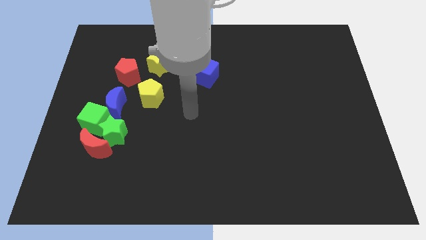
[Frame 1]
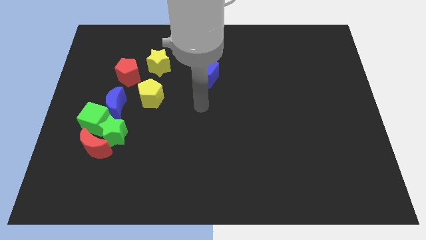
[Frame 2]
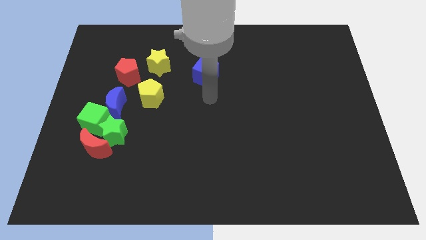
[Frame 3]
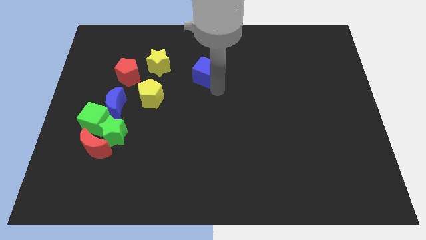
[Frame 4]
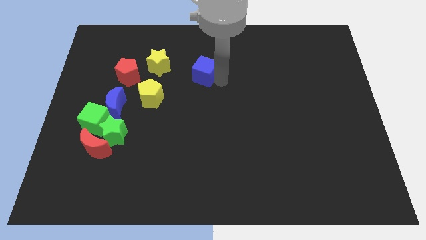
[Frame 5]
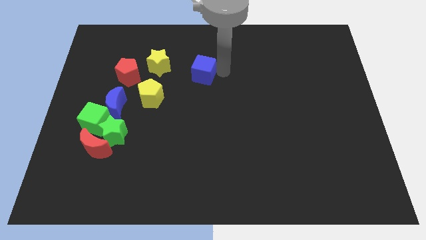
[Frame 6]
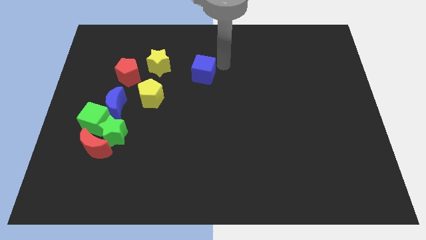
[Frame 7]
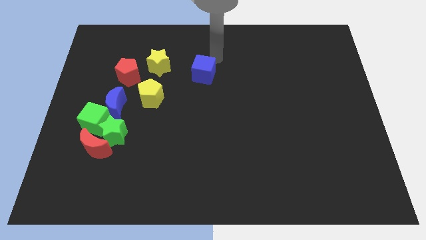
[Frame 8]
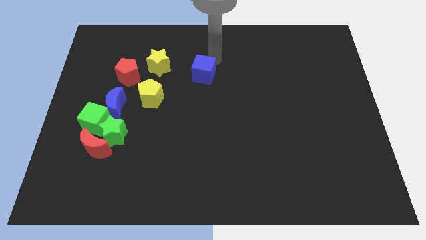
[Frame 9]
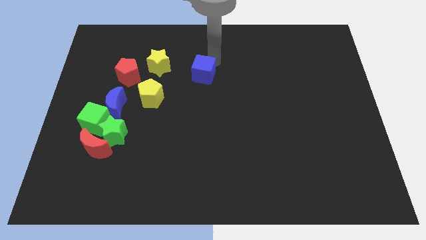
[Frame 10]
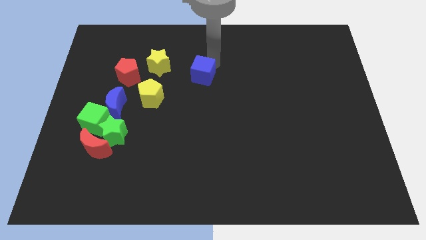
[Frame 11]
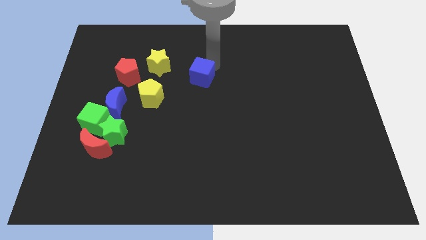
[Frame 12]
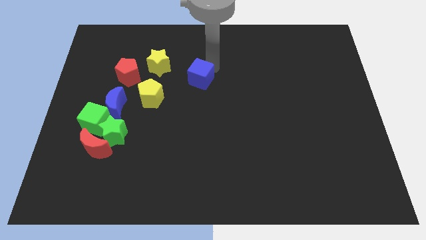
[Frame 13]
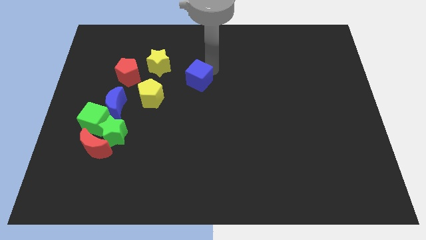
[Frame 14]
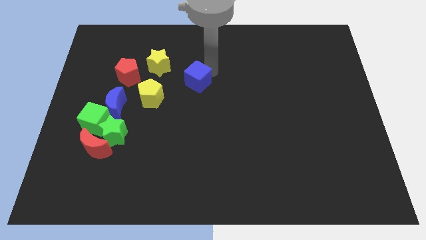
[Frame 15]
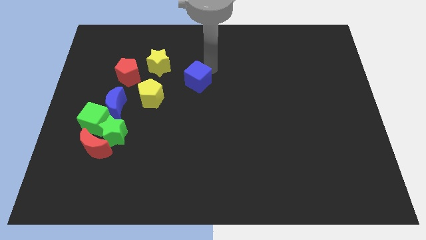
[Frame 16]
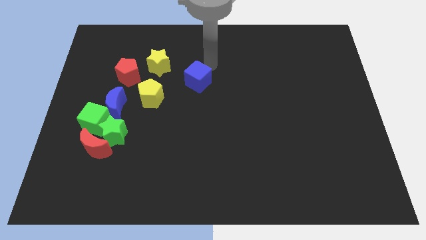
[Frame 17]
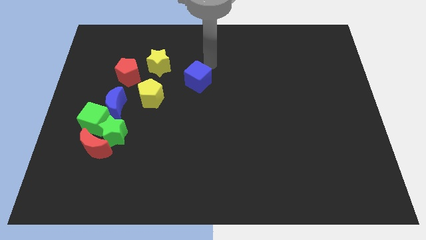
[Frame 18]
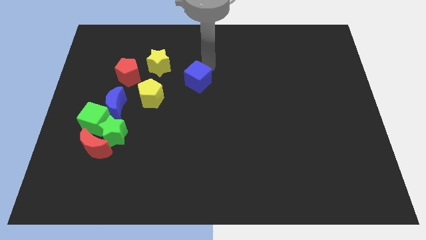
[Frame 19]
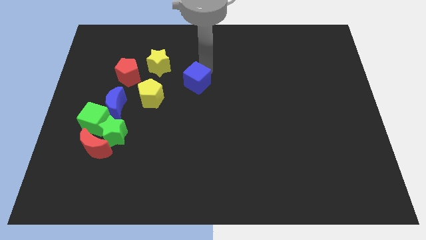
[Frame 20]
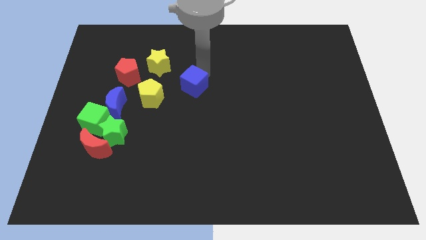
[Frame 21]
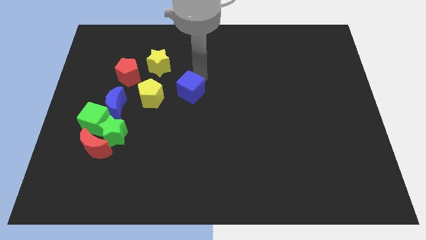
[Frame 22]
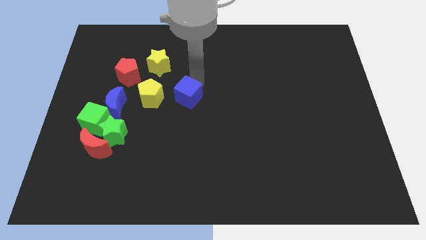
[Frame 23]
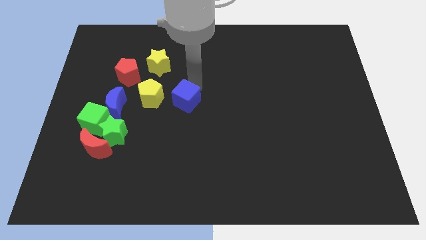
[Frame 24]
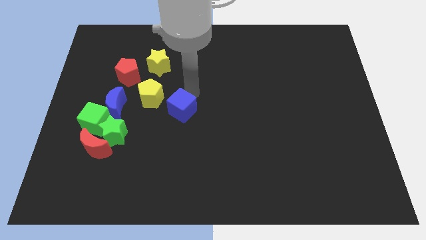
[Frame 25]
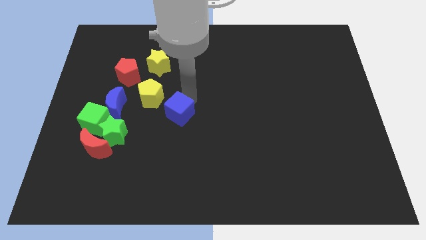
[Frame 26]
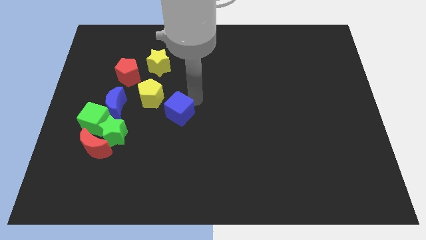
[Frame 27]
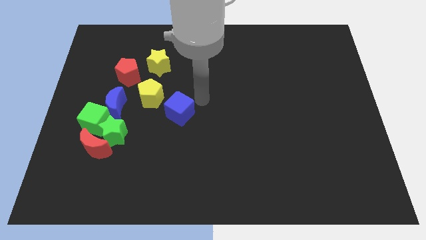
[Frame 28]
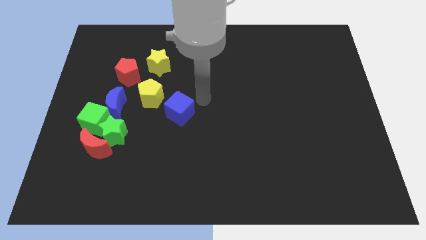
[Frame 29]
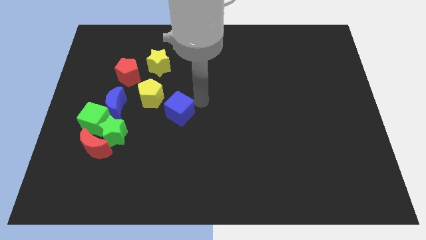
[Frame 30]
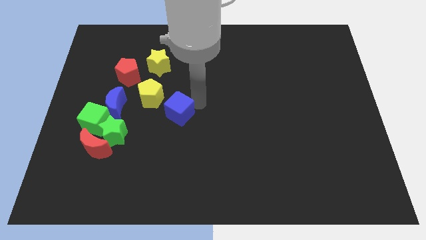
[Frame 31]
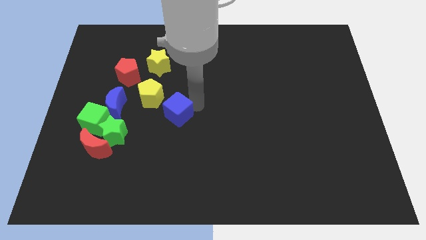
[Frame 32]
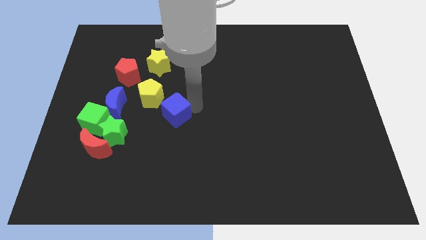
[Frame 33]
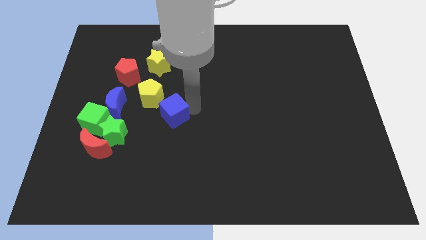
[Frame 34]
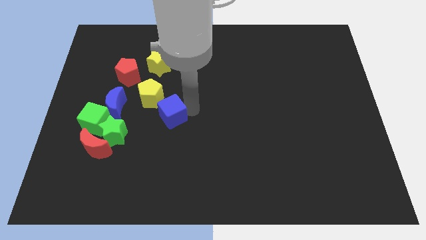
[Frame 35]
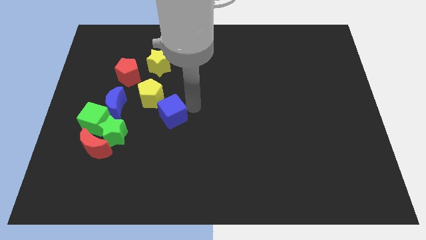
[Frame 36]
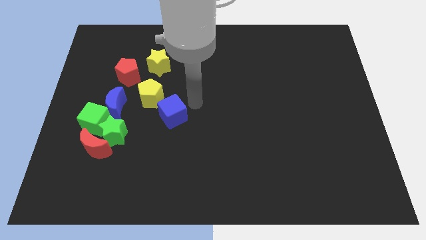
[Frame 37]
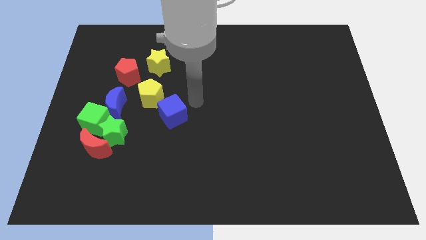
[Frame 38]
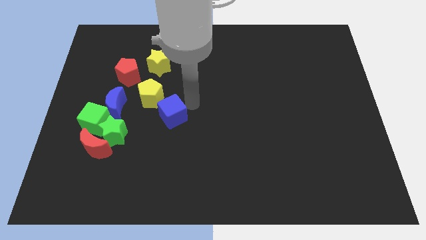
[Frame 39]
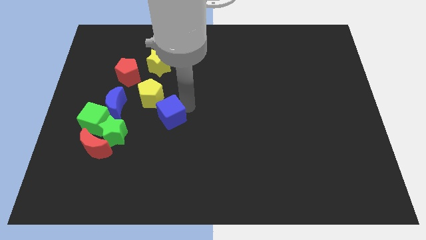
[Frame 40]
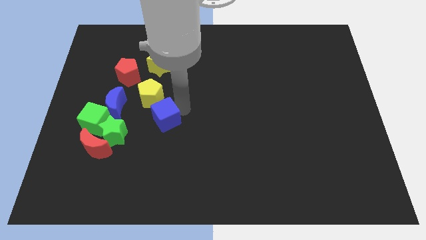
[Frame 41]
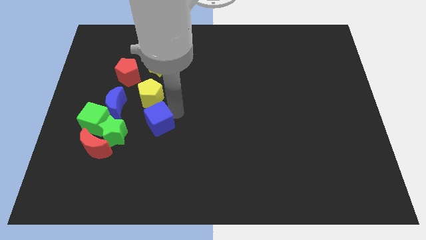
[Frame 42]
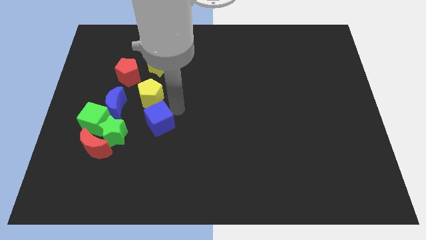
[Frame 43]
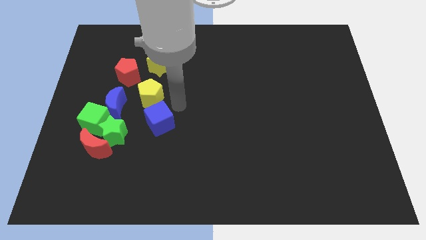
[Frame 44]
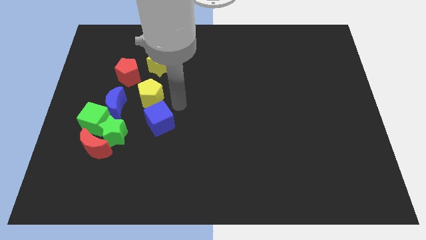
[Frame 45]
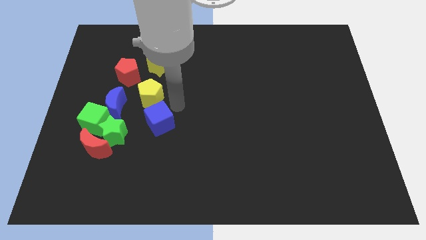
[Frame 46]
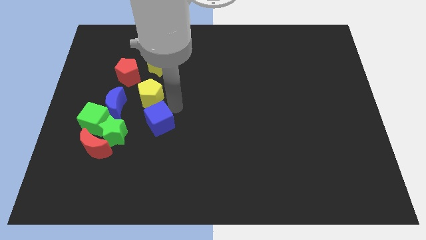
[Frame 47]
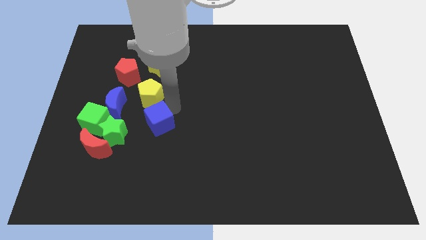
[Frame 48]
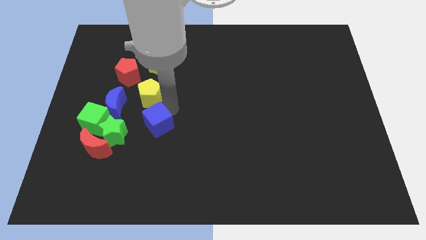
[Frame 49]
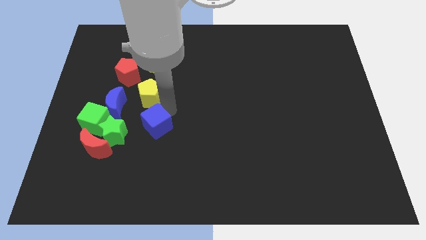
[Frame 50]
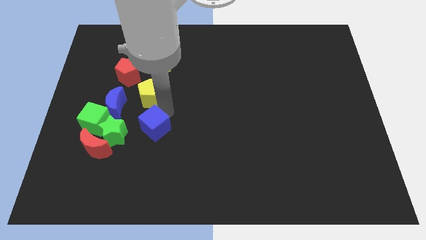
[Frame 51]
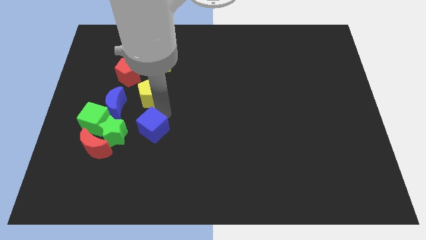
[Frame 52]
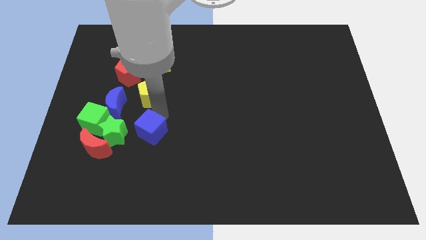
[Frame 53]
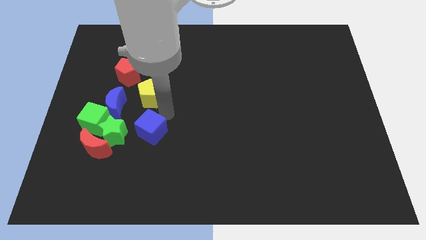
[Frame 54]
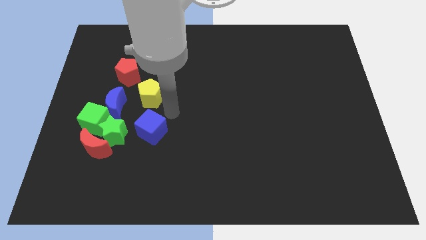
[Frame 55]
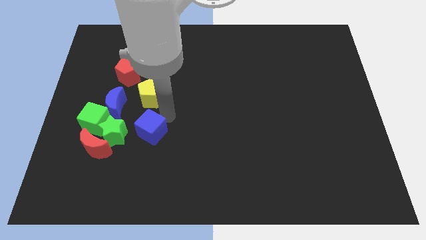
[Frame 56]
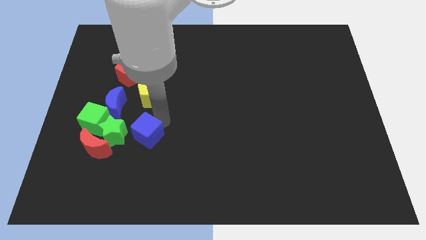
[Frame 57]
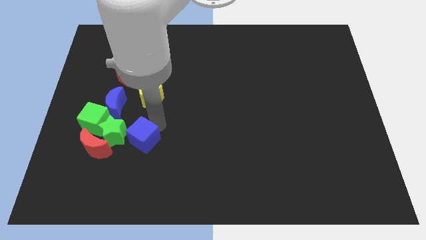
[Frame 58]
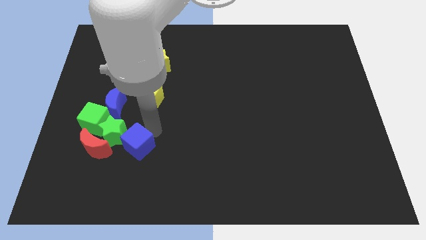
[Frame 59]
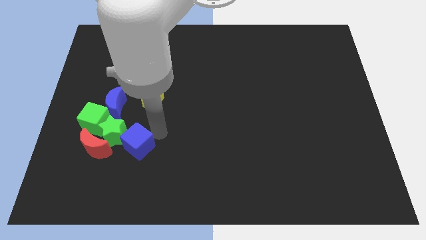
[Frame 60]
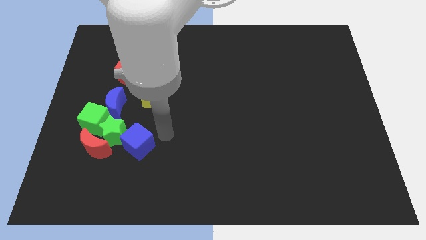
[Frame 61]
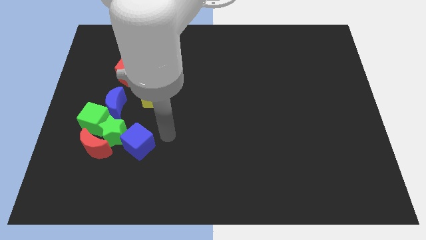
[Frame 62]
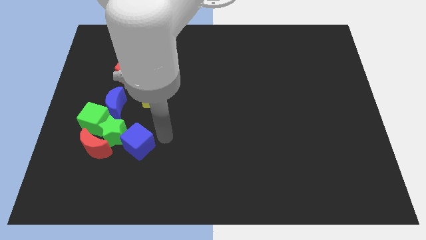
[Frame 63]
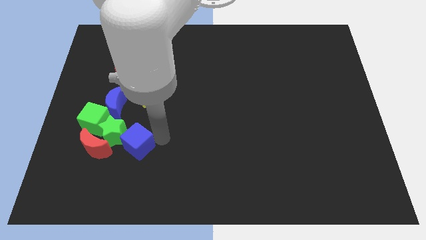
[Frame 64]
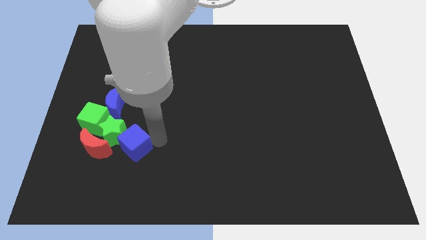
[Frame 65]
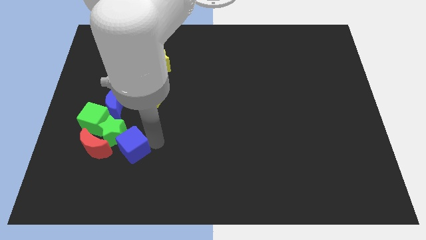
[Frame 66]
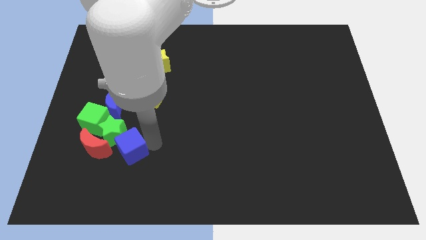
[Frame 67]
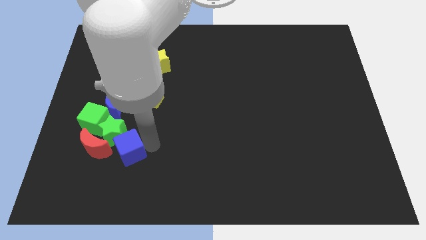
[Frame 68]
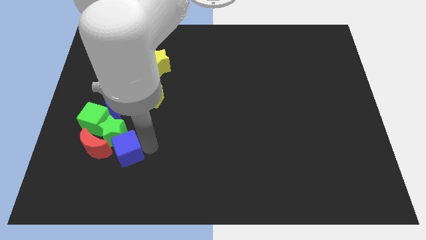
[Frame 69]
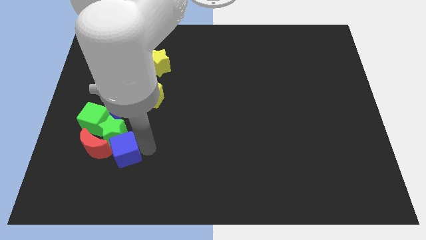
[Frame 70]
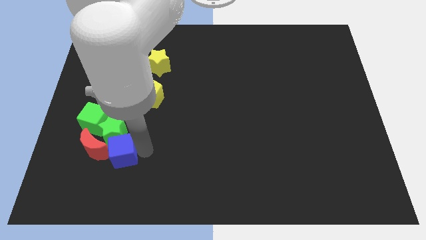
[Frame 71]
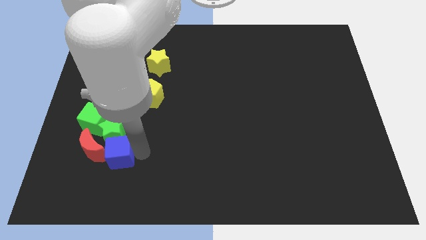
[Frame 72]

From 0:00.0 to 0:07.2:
push the blue cube to the red moon
